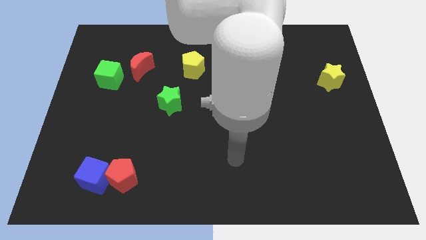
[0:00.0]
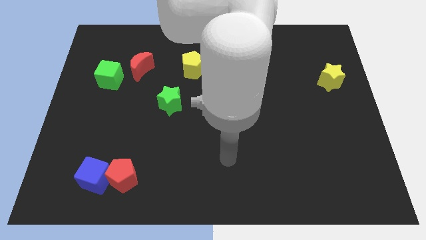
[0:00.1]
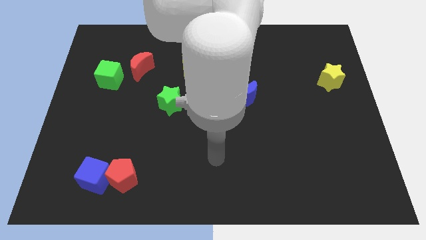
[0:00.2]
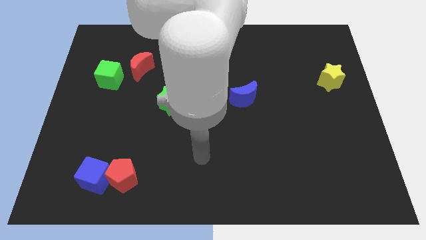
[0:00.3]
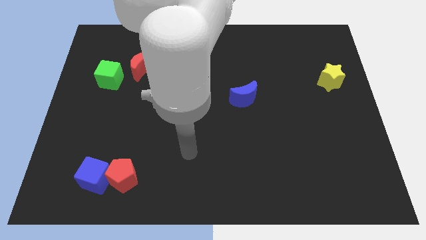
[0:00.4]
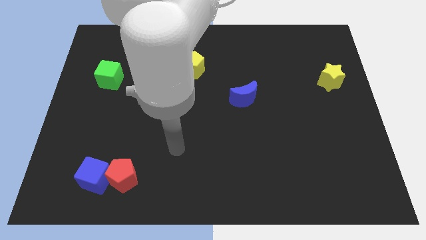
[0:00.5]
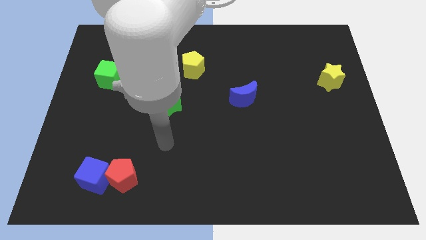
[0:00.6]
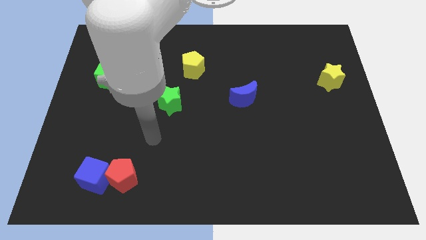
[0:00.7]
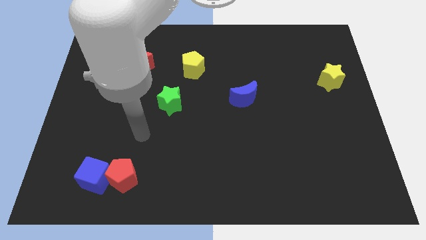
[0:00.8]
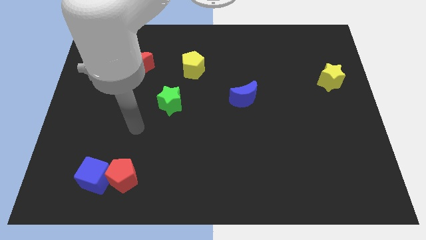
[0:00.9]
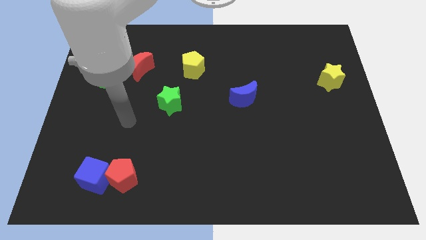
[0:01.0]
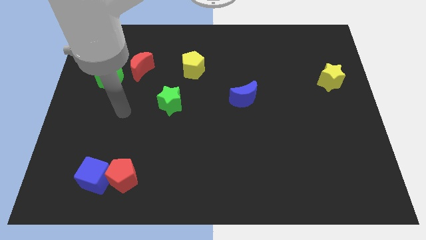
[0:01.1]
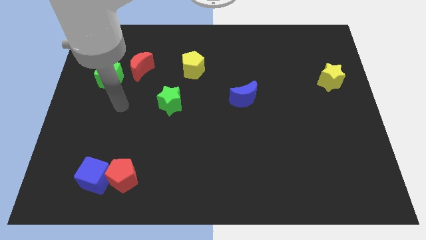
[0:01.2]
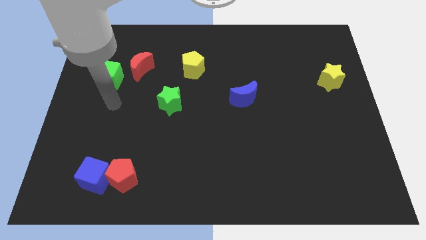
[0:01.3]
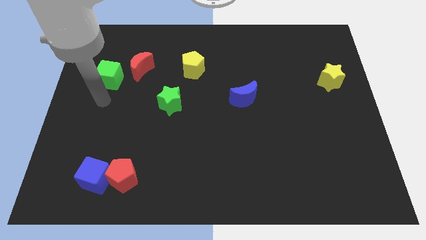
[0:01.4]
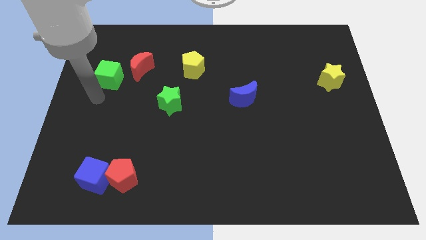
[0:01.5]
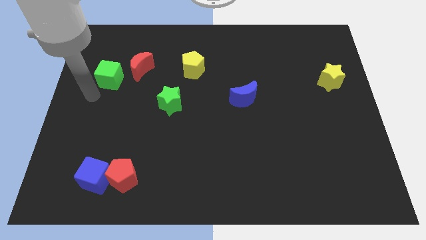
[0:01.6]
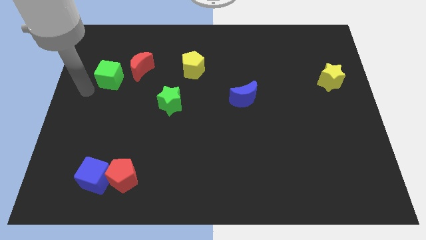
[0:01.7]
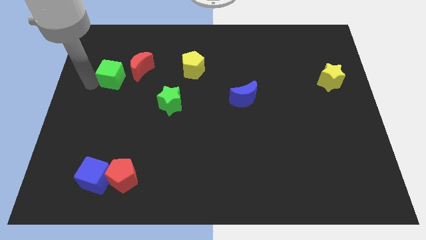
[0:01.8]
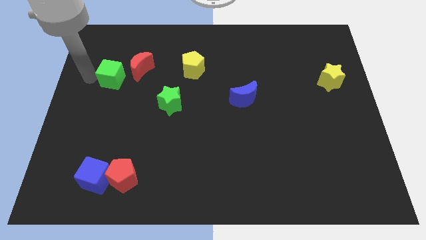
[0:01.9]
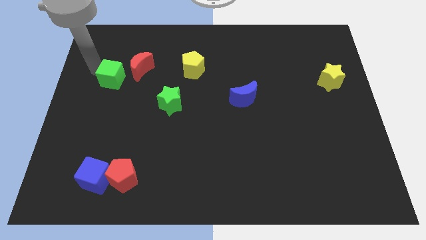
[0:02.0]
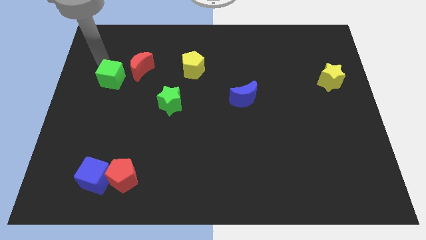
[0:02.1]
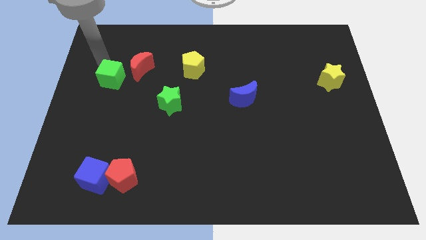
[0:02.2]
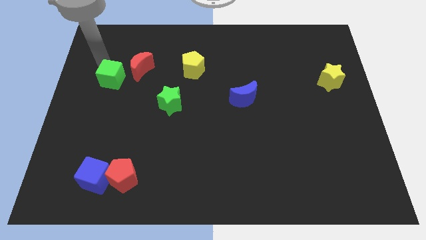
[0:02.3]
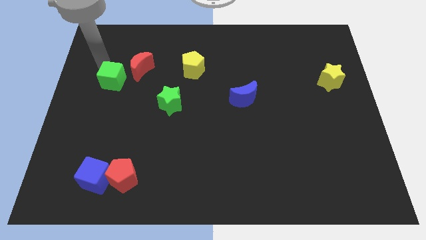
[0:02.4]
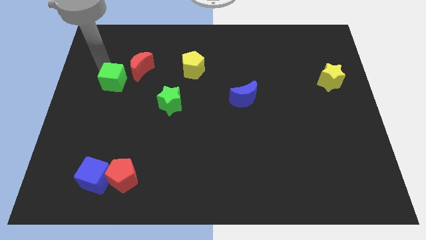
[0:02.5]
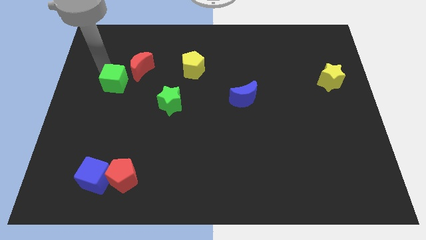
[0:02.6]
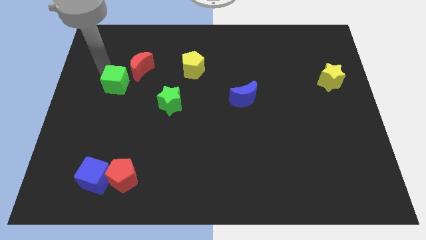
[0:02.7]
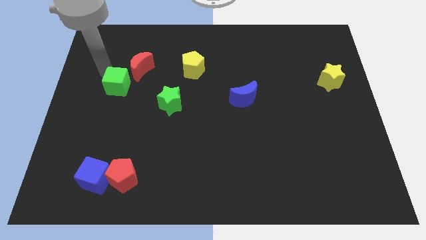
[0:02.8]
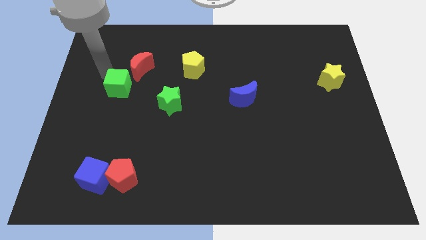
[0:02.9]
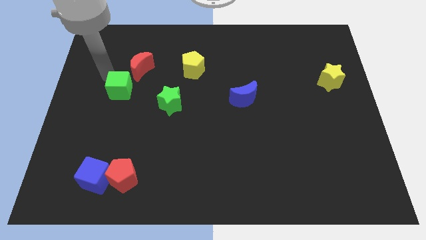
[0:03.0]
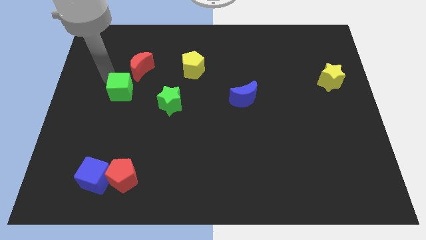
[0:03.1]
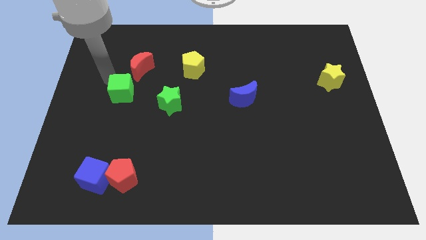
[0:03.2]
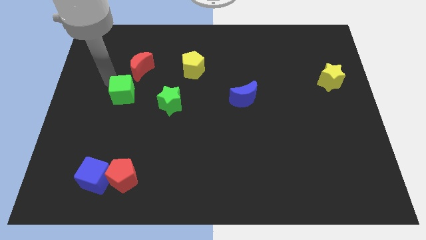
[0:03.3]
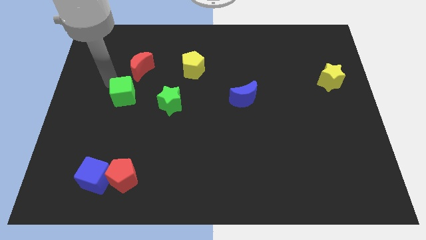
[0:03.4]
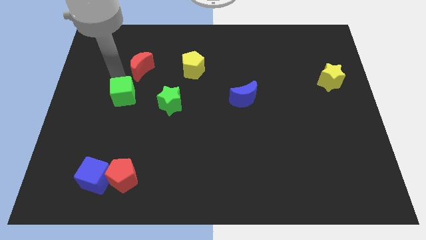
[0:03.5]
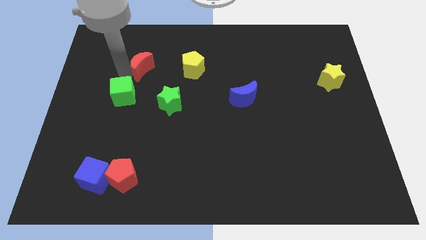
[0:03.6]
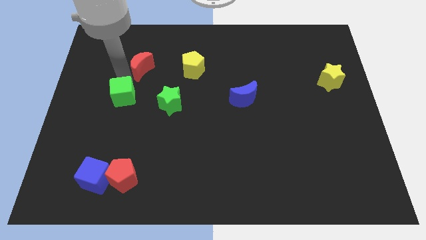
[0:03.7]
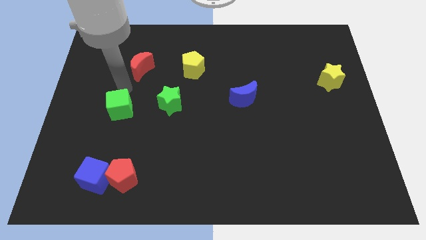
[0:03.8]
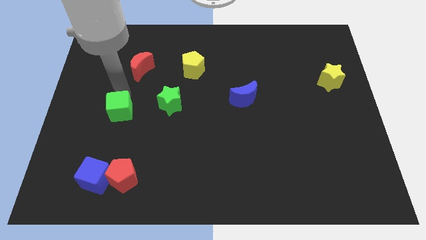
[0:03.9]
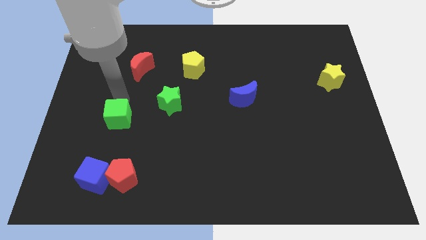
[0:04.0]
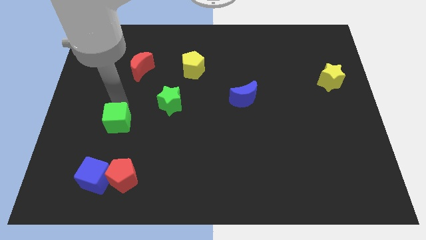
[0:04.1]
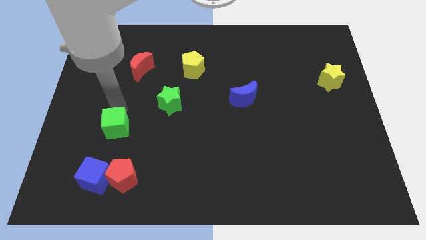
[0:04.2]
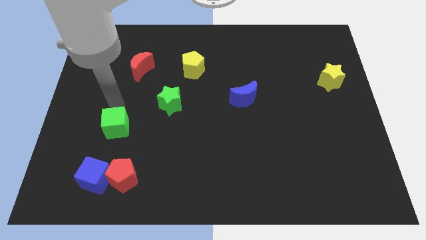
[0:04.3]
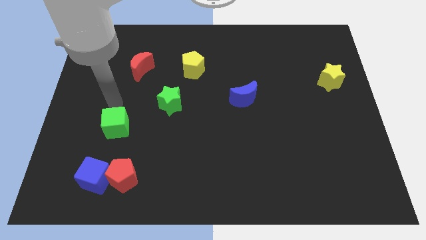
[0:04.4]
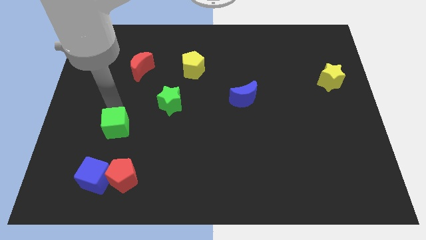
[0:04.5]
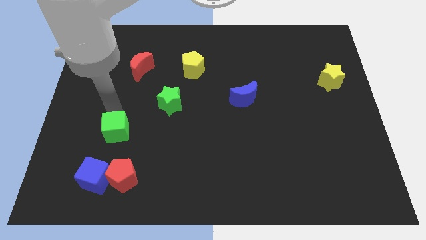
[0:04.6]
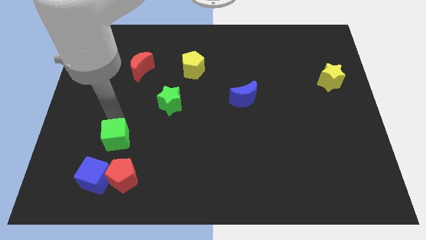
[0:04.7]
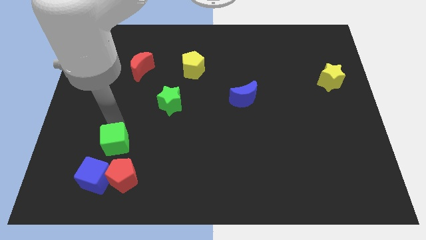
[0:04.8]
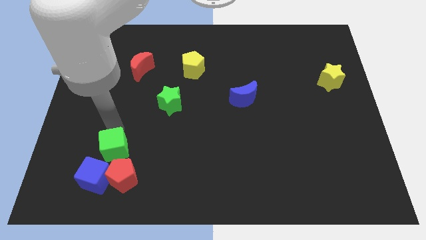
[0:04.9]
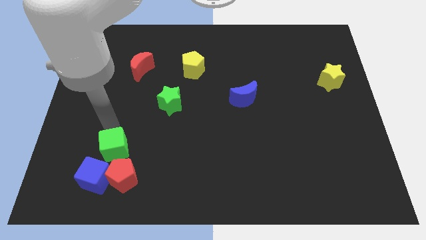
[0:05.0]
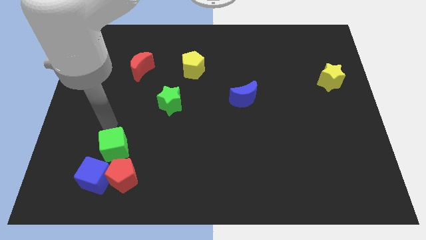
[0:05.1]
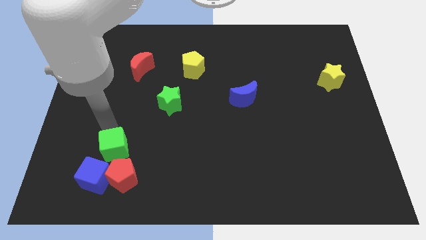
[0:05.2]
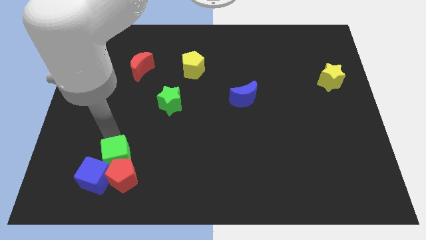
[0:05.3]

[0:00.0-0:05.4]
move the green cube next to the red pentagon

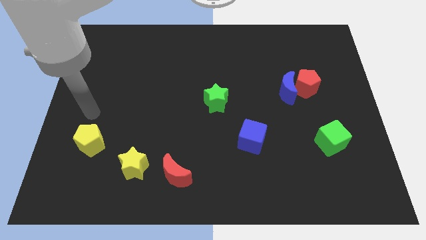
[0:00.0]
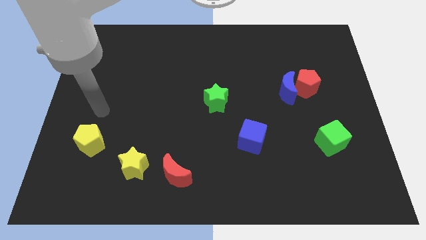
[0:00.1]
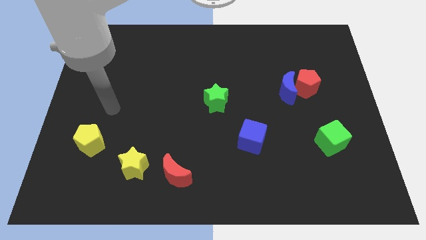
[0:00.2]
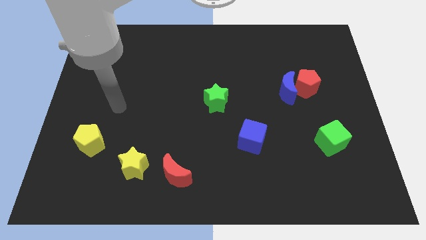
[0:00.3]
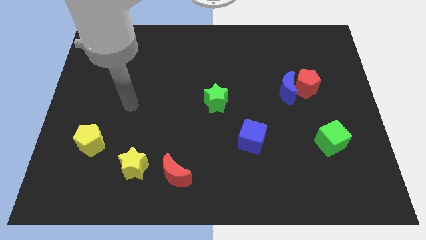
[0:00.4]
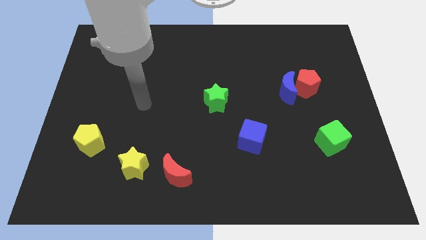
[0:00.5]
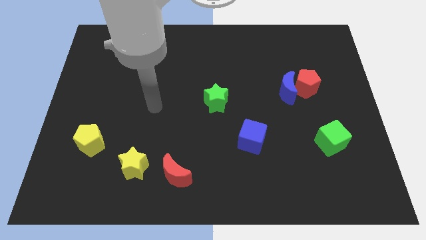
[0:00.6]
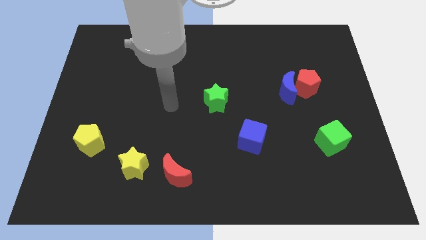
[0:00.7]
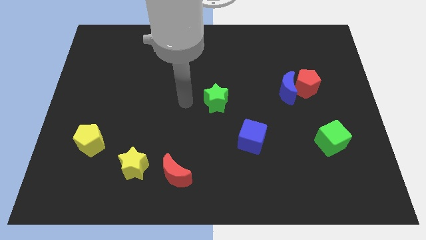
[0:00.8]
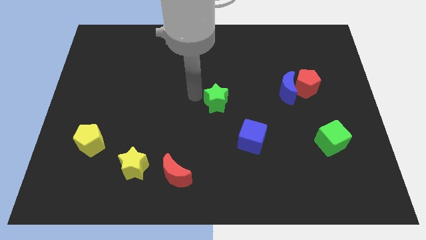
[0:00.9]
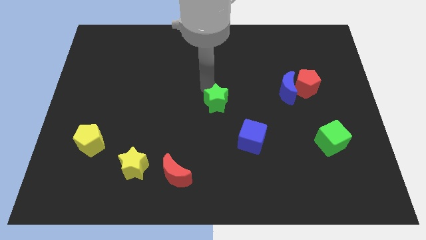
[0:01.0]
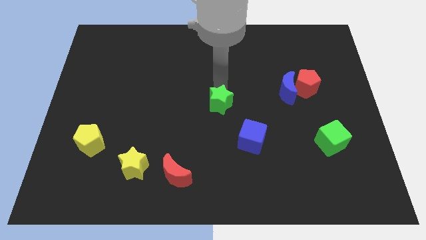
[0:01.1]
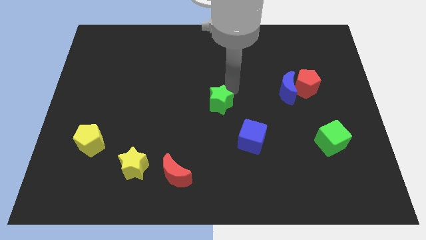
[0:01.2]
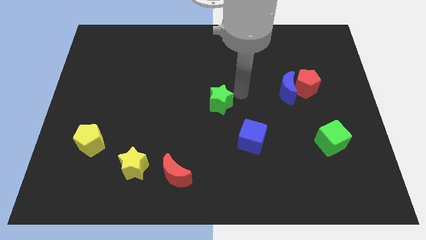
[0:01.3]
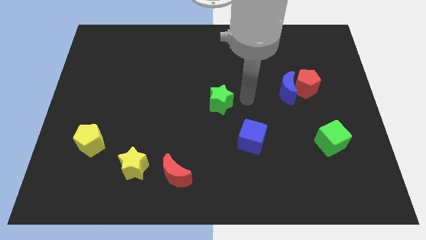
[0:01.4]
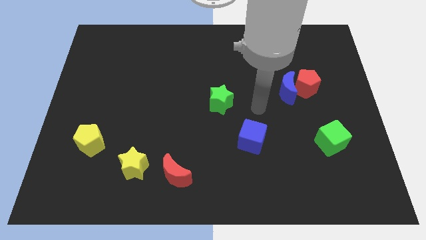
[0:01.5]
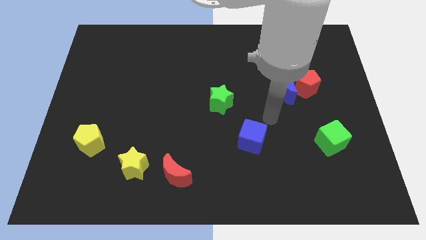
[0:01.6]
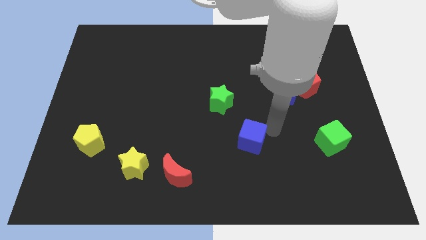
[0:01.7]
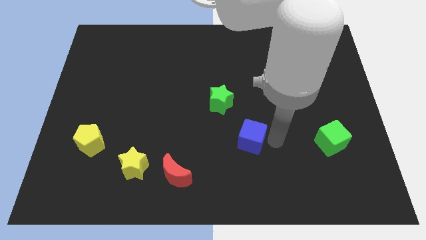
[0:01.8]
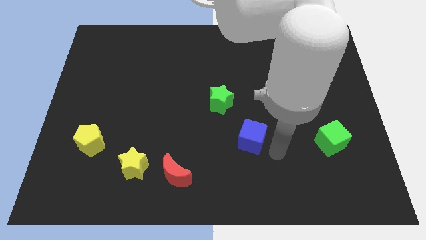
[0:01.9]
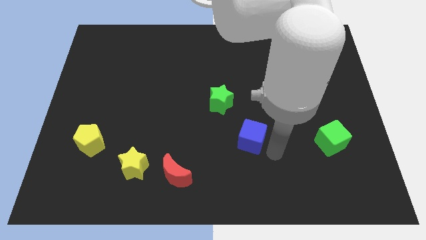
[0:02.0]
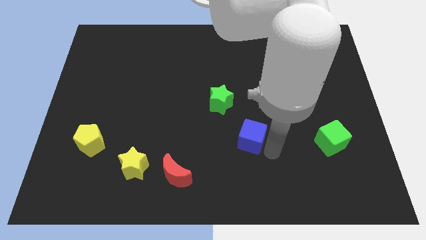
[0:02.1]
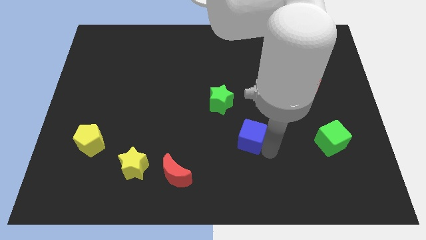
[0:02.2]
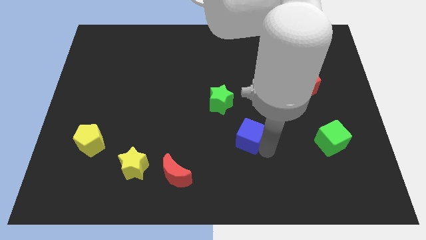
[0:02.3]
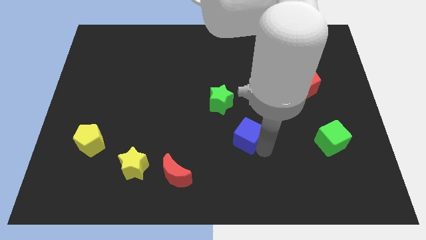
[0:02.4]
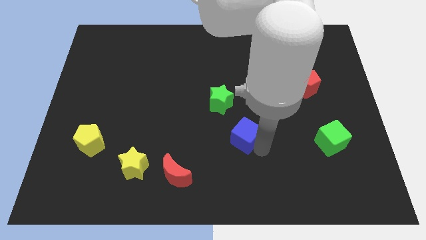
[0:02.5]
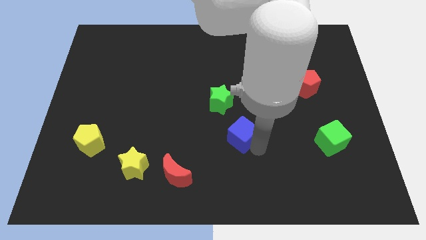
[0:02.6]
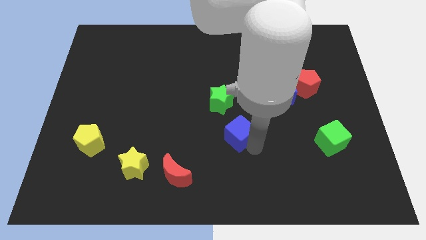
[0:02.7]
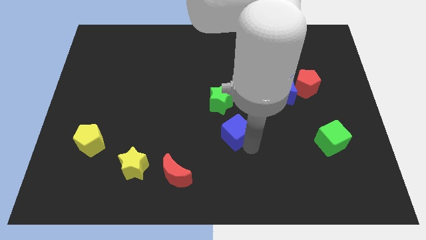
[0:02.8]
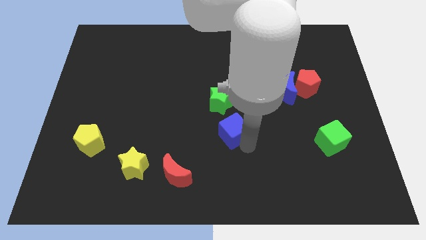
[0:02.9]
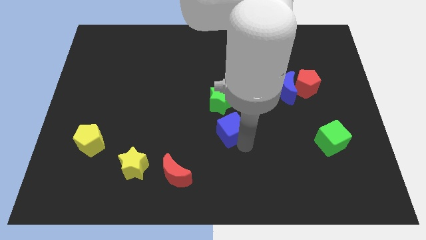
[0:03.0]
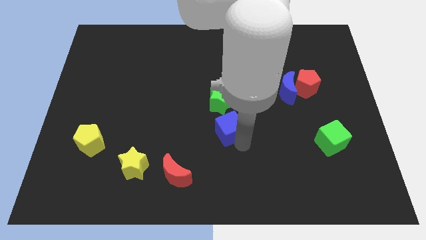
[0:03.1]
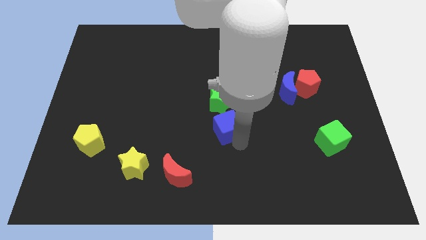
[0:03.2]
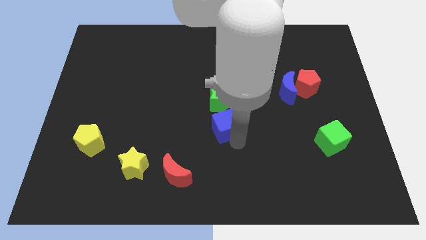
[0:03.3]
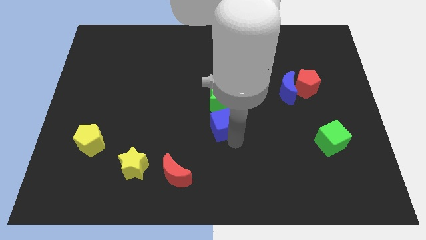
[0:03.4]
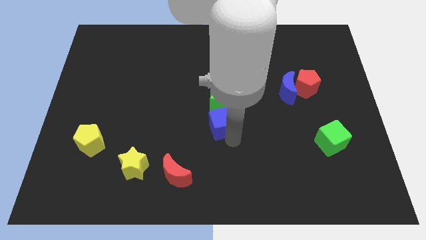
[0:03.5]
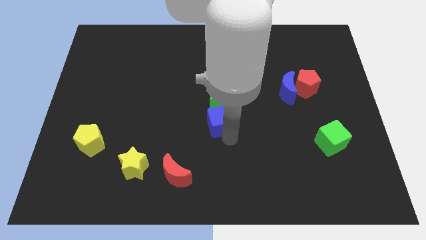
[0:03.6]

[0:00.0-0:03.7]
push the blue cube close to the green star
